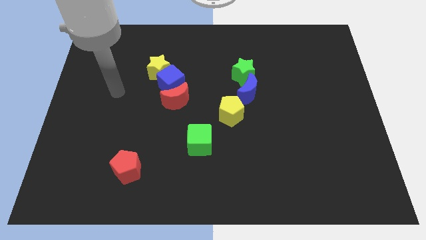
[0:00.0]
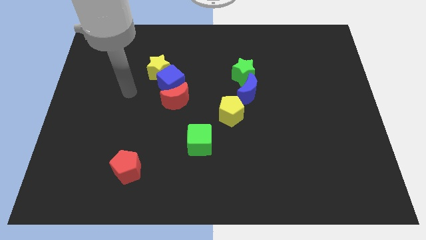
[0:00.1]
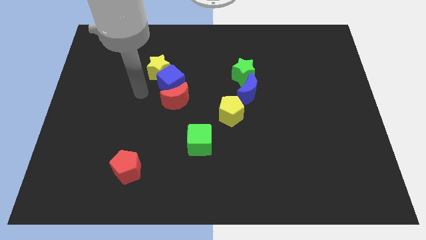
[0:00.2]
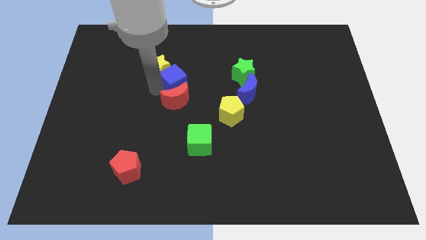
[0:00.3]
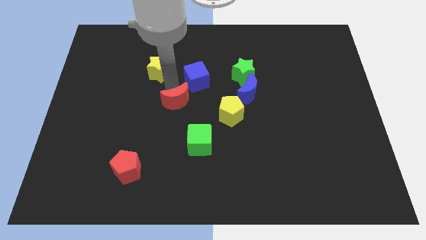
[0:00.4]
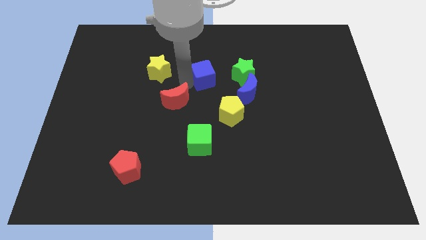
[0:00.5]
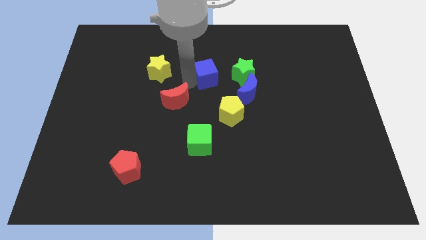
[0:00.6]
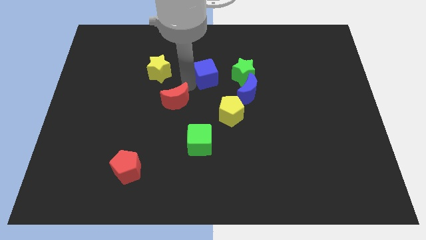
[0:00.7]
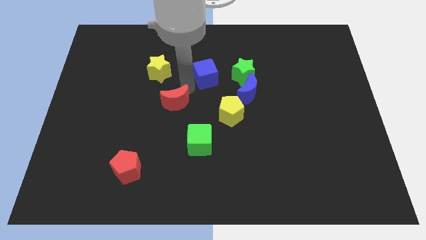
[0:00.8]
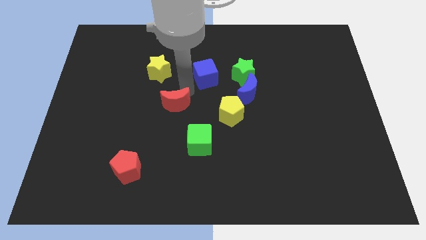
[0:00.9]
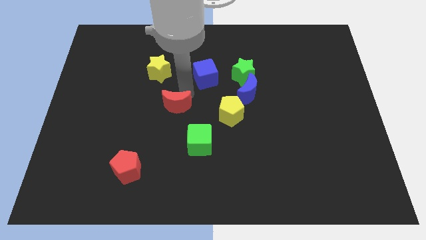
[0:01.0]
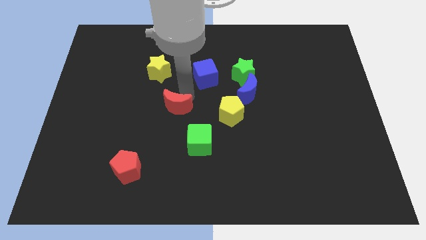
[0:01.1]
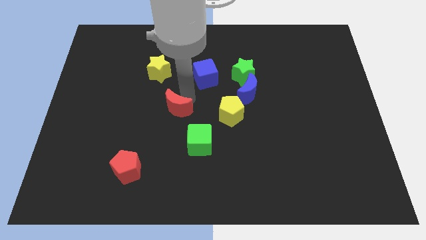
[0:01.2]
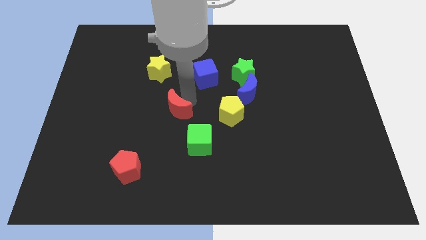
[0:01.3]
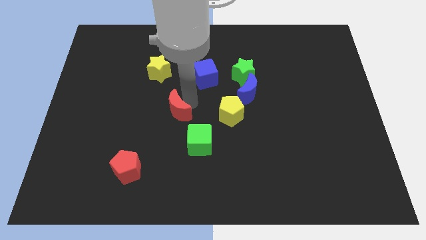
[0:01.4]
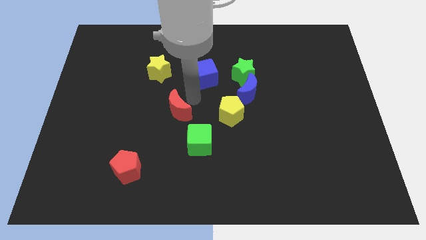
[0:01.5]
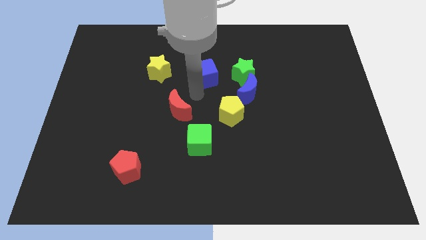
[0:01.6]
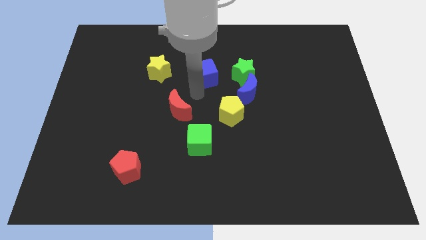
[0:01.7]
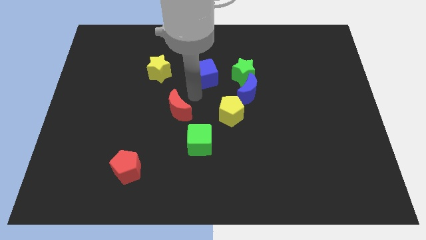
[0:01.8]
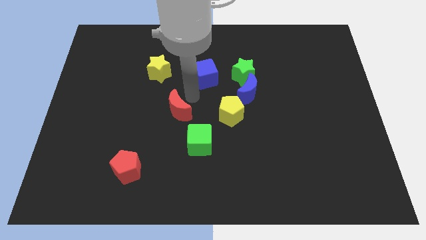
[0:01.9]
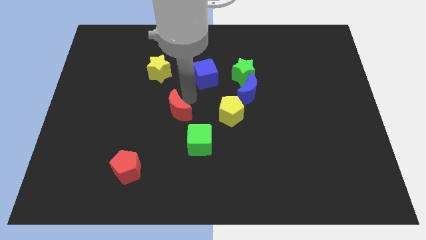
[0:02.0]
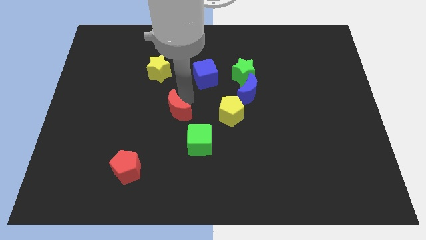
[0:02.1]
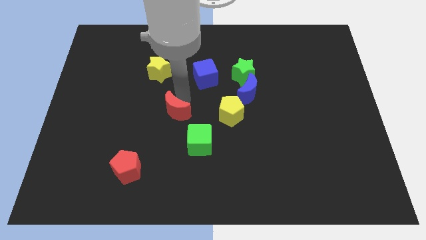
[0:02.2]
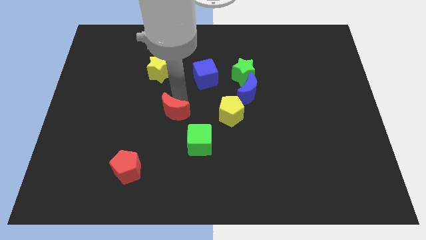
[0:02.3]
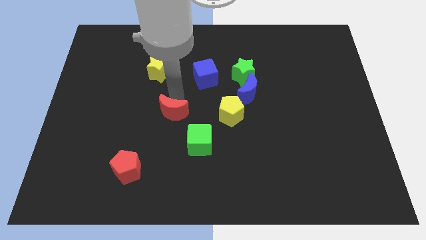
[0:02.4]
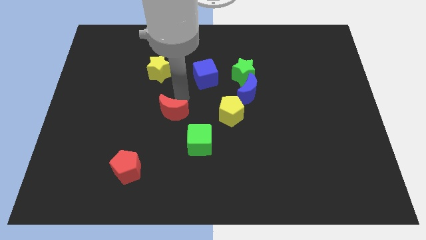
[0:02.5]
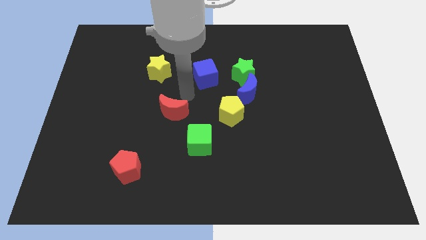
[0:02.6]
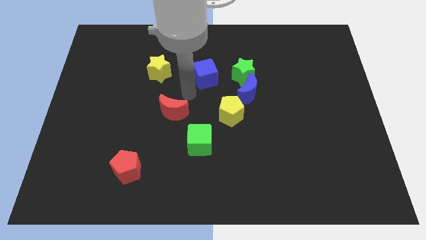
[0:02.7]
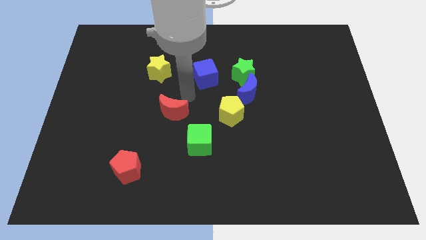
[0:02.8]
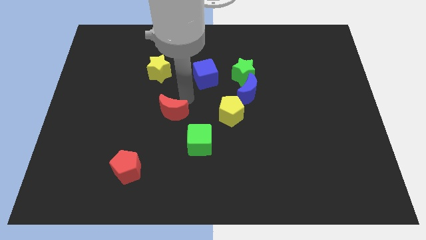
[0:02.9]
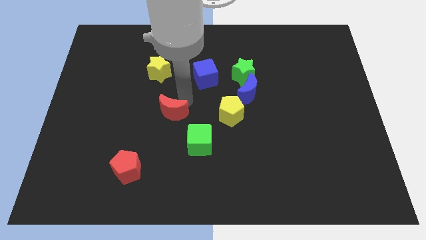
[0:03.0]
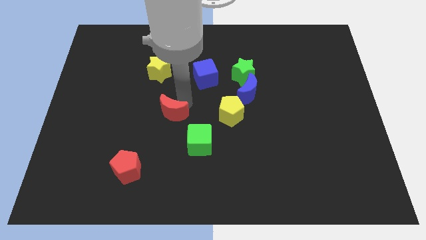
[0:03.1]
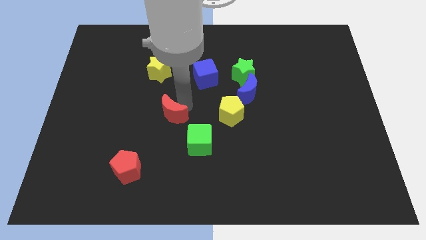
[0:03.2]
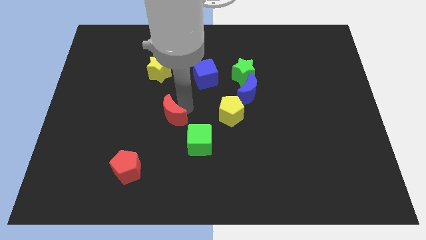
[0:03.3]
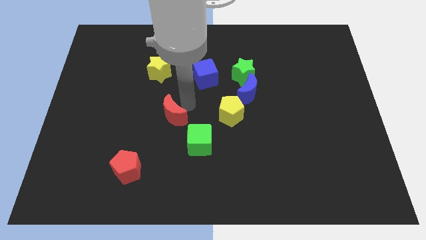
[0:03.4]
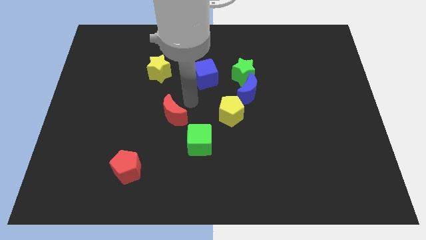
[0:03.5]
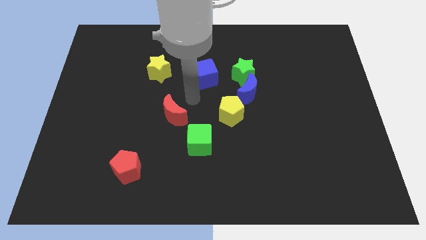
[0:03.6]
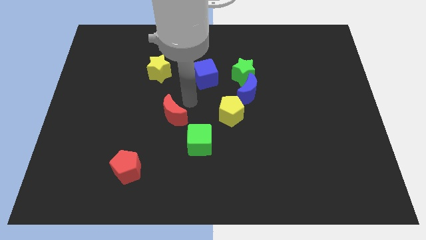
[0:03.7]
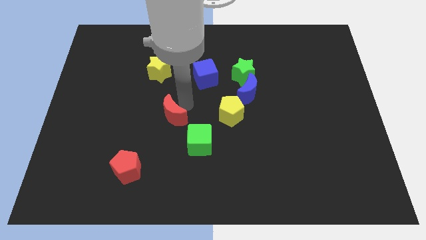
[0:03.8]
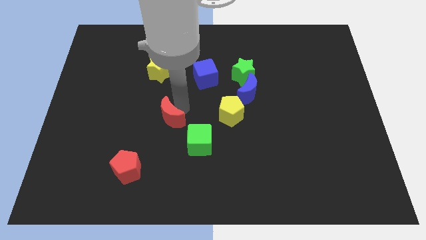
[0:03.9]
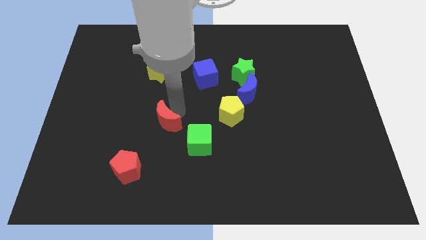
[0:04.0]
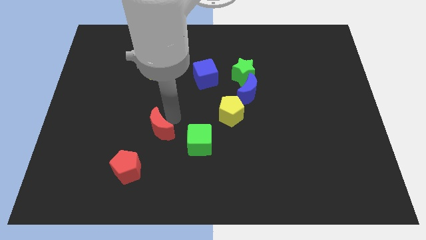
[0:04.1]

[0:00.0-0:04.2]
slide the red moon a little bit downwards and left

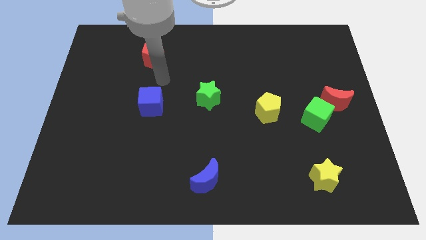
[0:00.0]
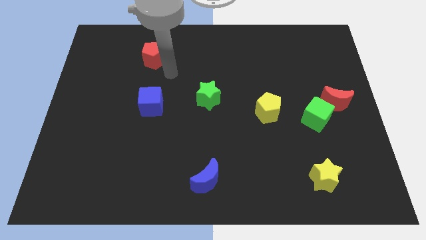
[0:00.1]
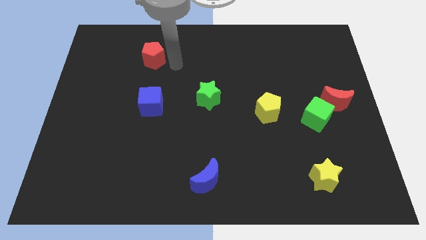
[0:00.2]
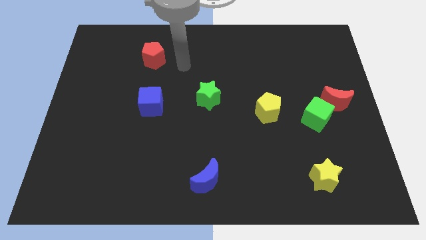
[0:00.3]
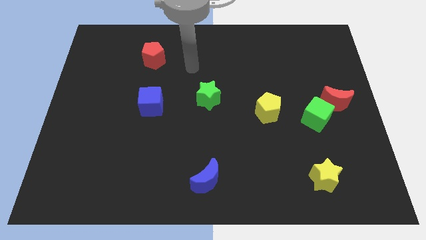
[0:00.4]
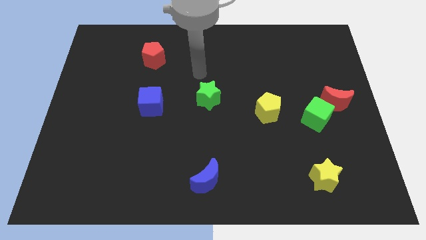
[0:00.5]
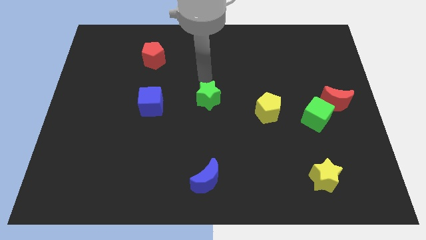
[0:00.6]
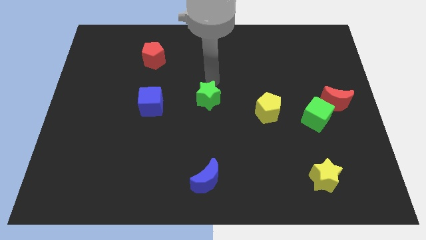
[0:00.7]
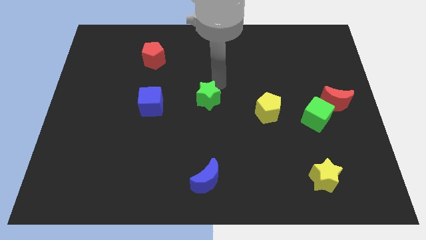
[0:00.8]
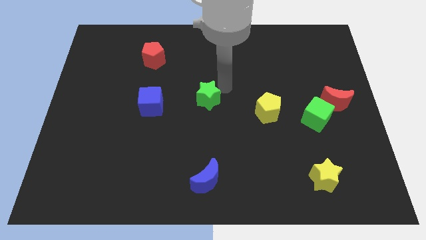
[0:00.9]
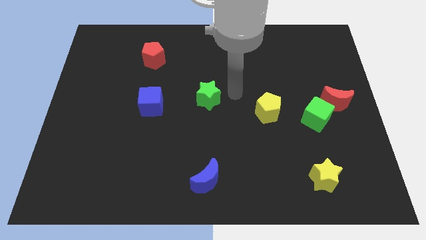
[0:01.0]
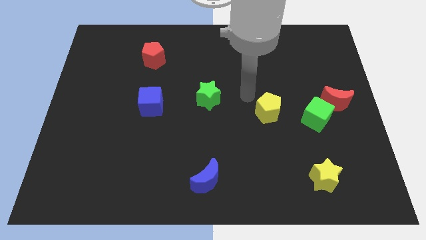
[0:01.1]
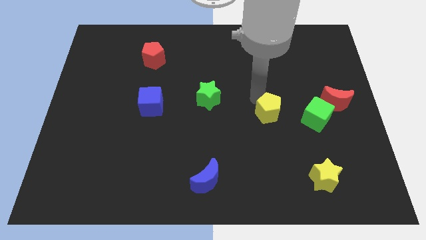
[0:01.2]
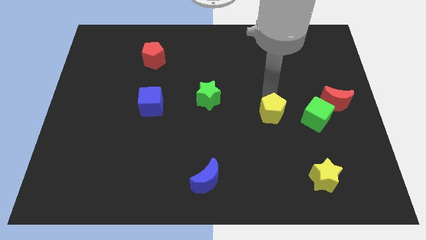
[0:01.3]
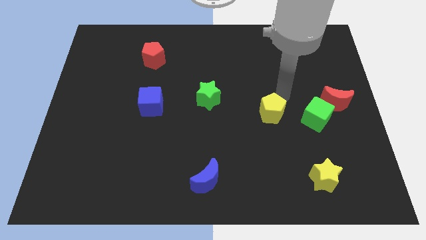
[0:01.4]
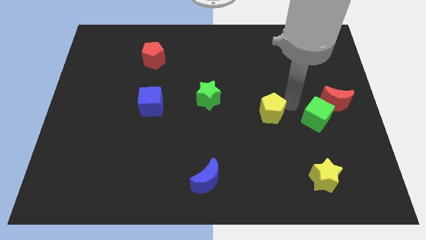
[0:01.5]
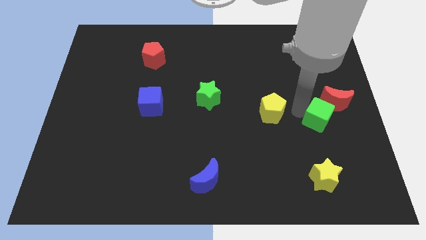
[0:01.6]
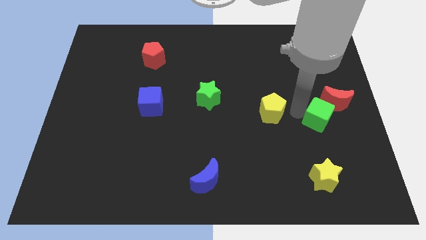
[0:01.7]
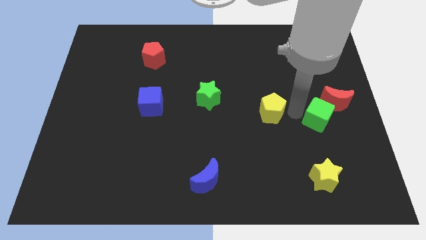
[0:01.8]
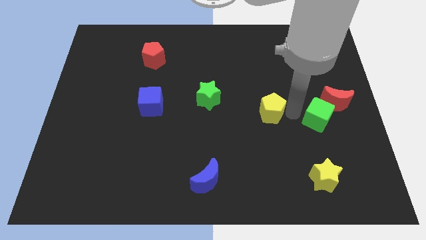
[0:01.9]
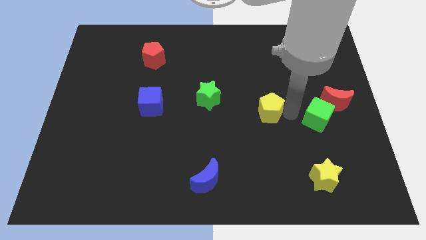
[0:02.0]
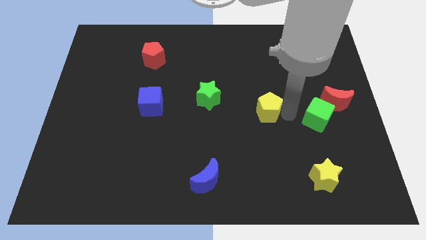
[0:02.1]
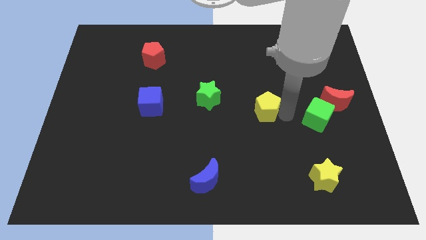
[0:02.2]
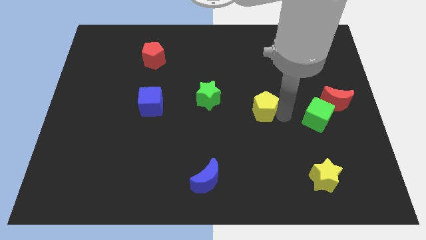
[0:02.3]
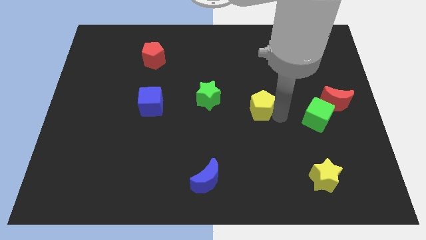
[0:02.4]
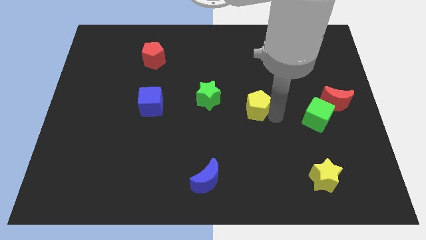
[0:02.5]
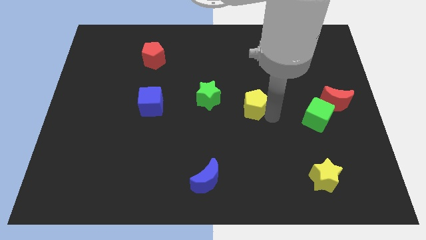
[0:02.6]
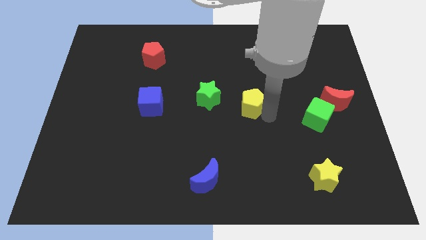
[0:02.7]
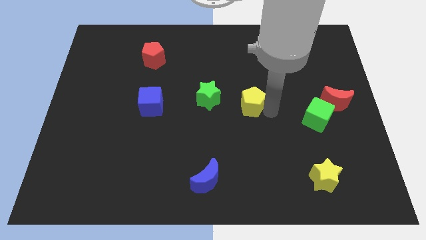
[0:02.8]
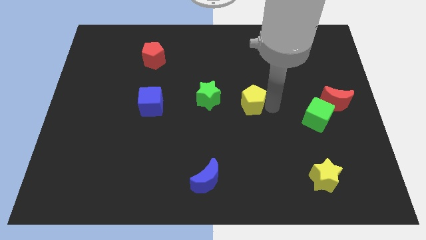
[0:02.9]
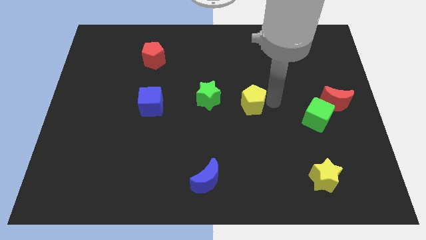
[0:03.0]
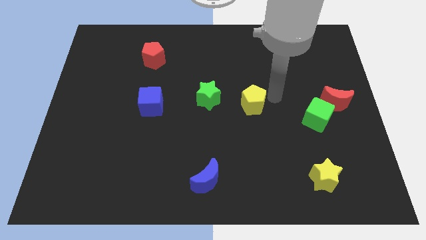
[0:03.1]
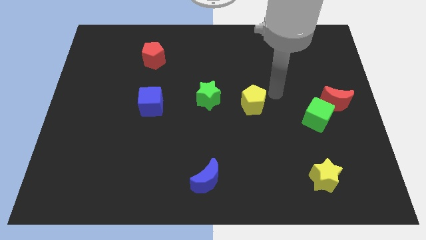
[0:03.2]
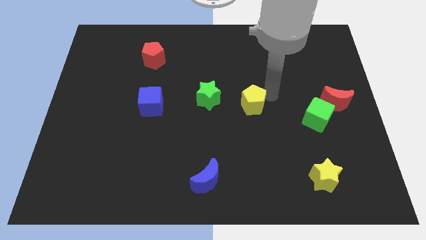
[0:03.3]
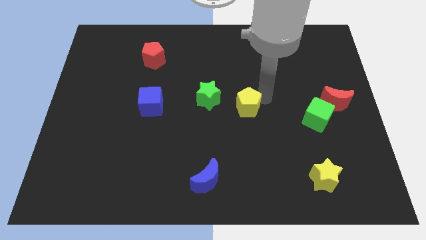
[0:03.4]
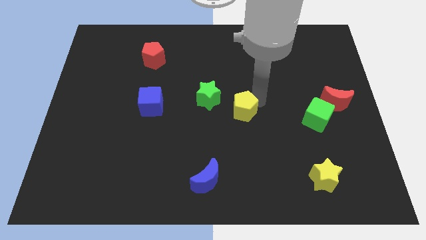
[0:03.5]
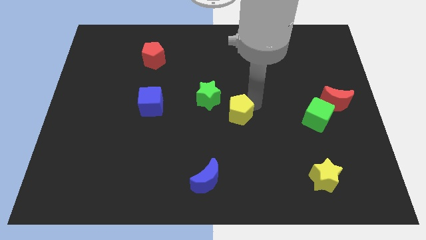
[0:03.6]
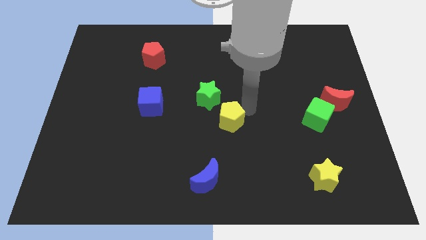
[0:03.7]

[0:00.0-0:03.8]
slightly move the yellow pentagon left

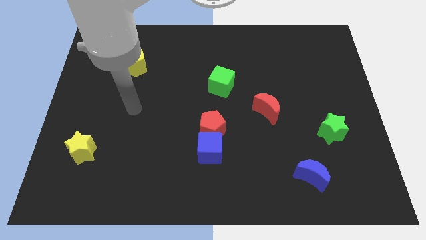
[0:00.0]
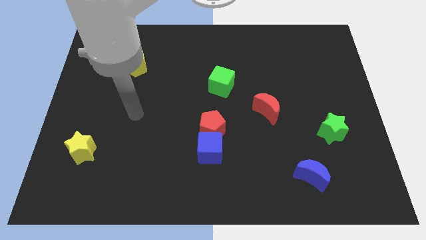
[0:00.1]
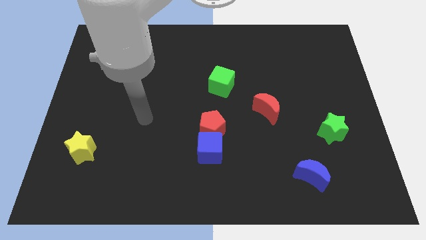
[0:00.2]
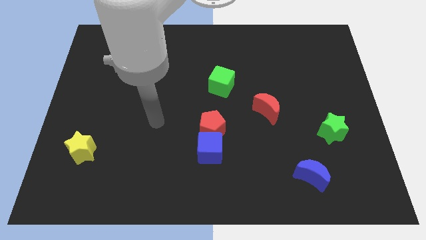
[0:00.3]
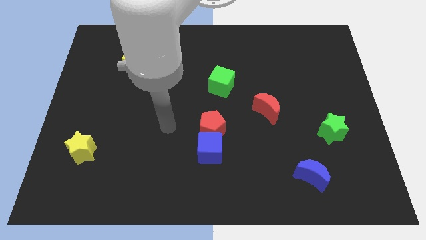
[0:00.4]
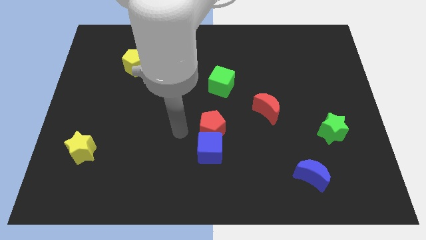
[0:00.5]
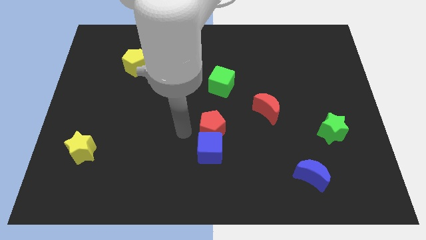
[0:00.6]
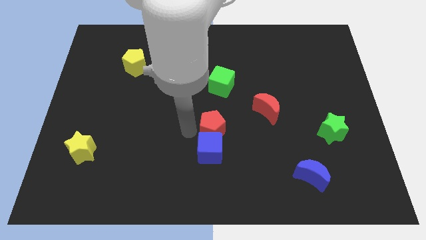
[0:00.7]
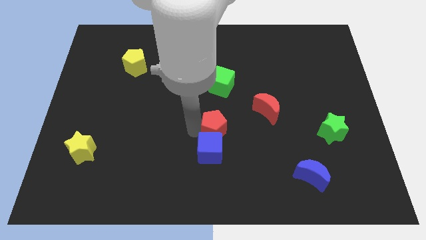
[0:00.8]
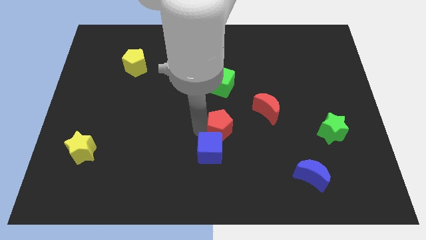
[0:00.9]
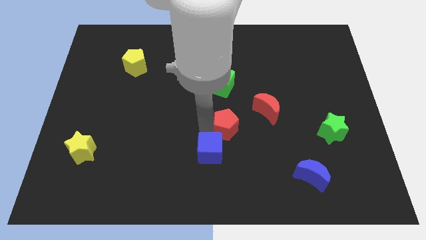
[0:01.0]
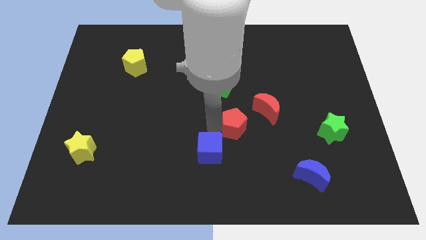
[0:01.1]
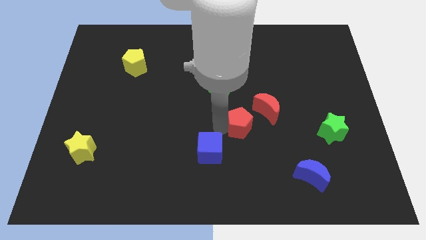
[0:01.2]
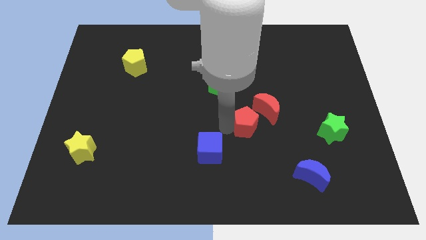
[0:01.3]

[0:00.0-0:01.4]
move the red pentagon somewhat right
